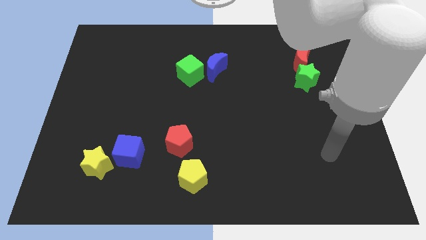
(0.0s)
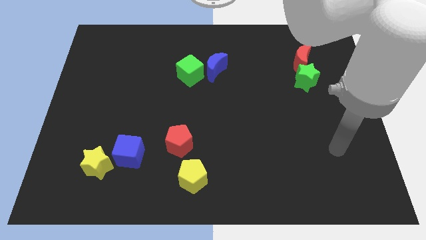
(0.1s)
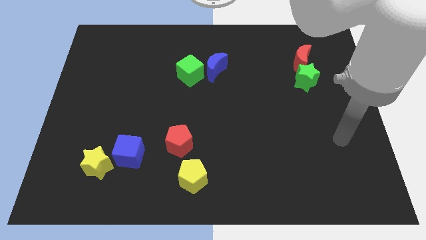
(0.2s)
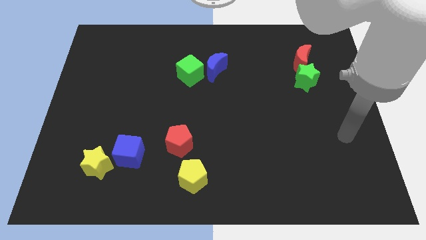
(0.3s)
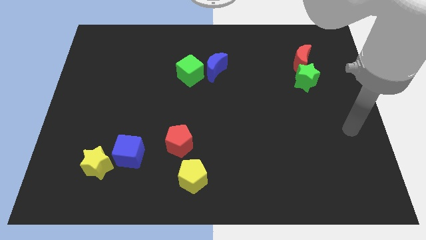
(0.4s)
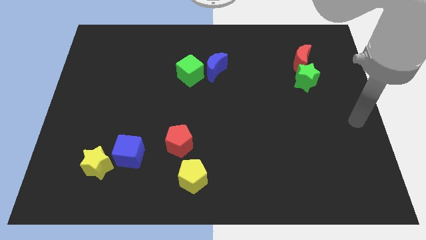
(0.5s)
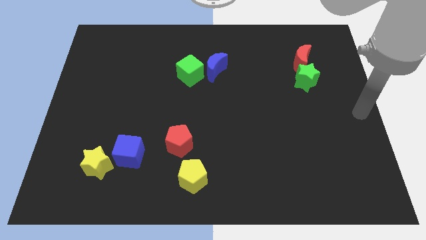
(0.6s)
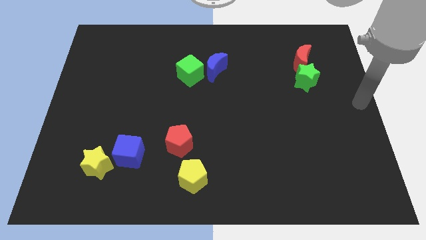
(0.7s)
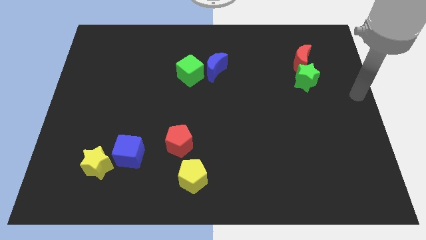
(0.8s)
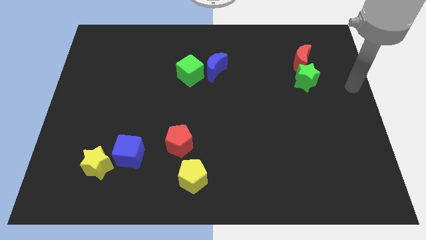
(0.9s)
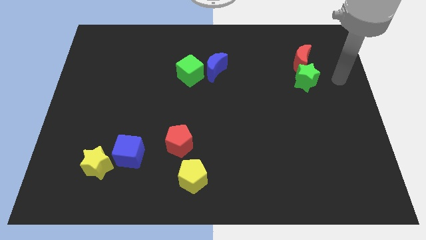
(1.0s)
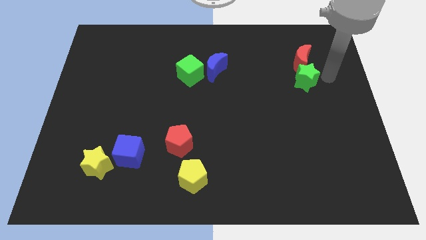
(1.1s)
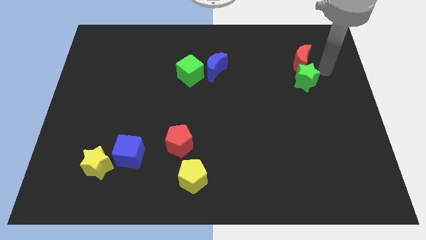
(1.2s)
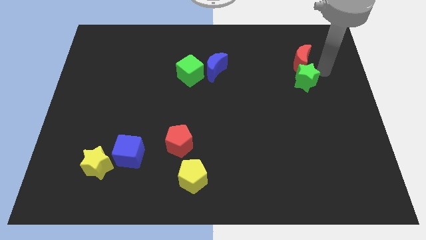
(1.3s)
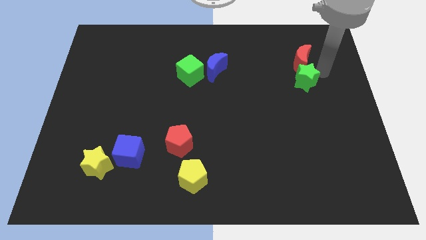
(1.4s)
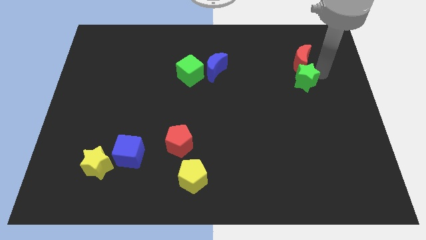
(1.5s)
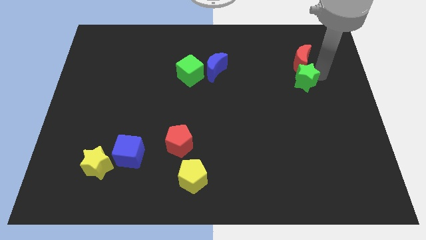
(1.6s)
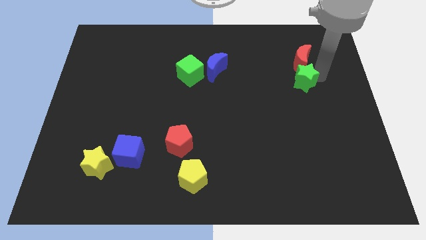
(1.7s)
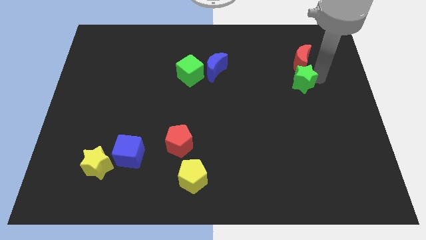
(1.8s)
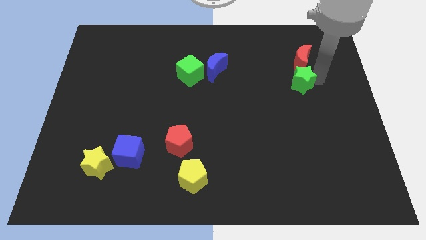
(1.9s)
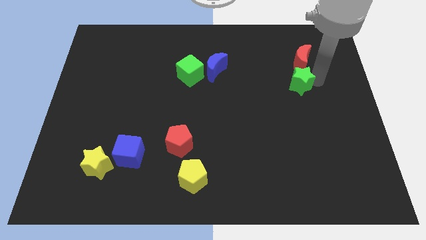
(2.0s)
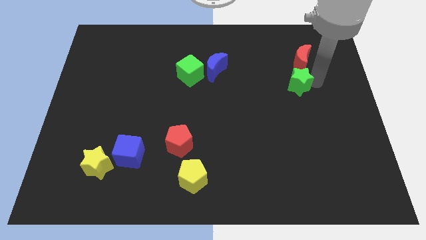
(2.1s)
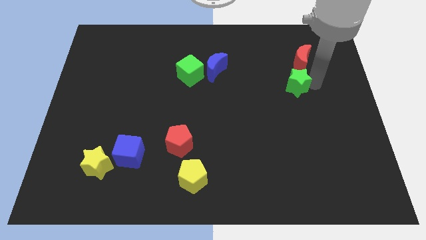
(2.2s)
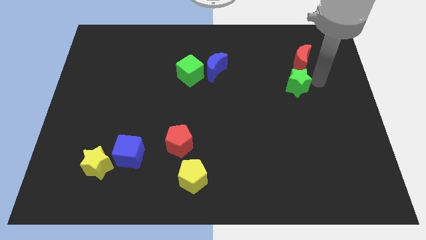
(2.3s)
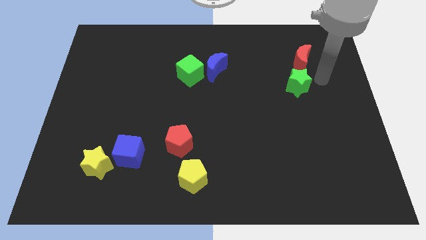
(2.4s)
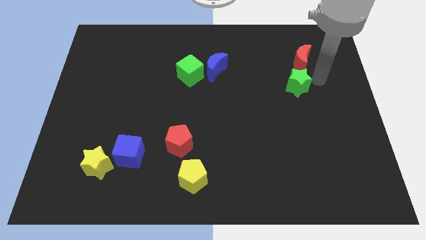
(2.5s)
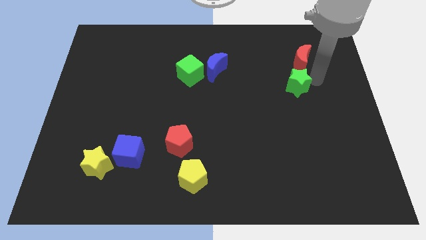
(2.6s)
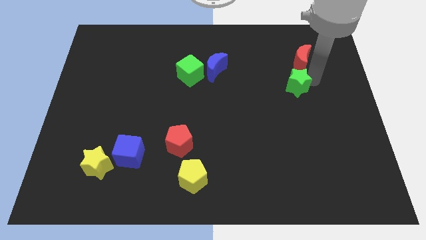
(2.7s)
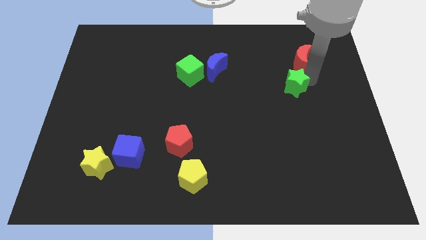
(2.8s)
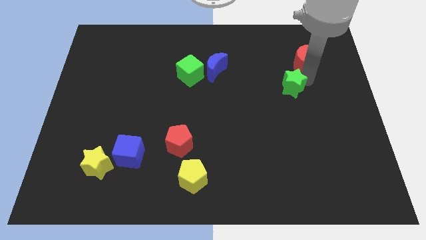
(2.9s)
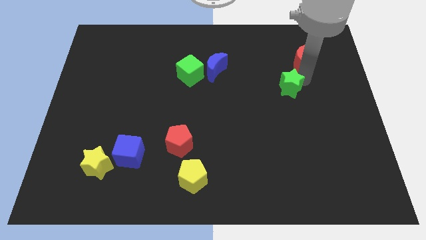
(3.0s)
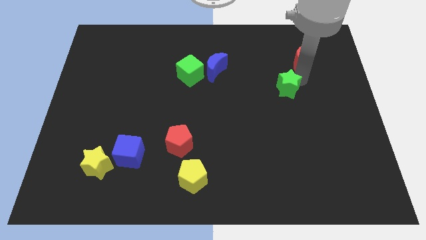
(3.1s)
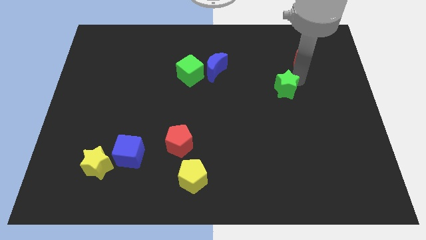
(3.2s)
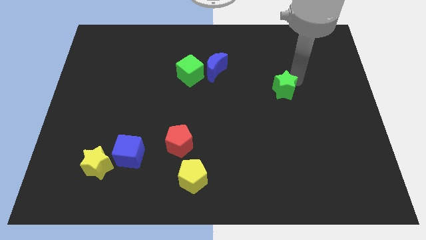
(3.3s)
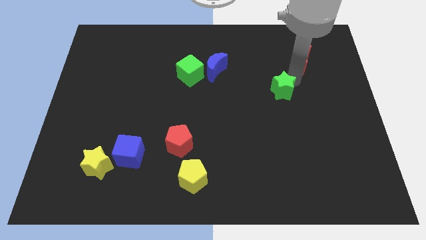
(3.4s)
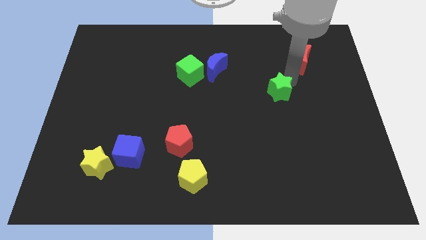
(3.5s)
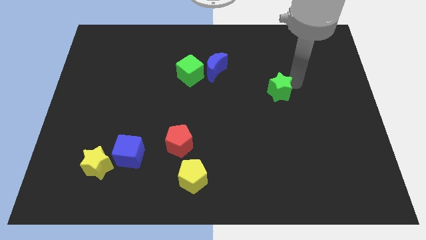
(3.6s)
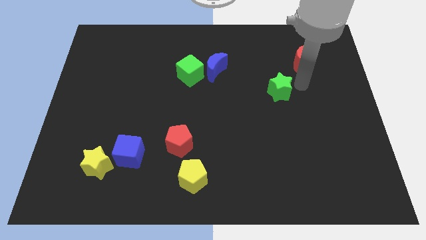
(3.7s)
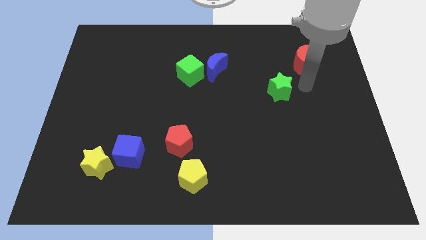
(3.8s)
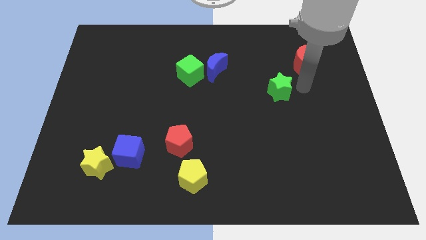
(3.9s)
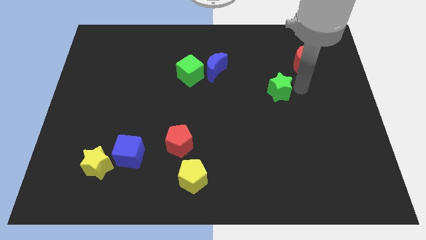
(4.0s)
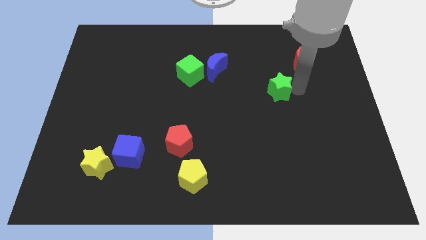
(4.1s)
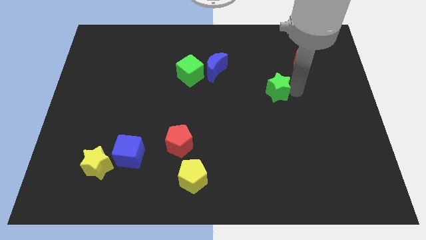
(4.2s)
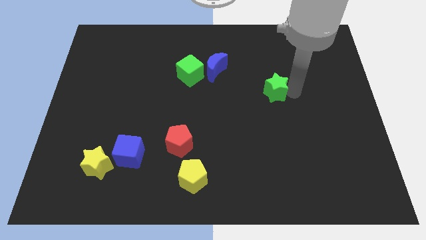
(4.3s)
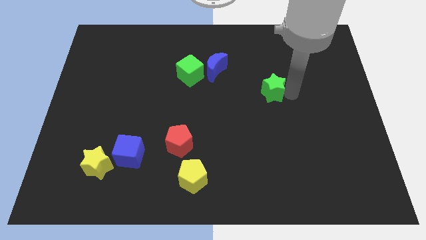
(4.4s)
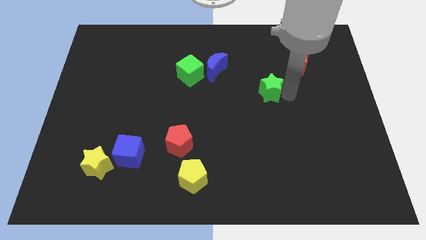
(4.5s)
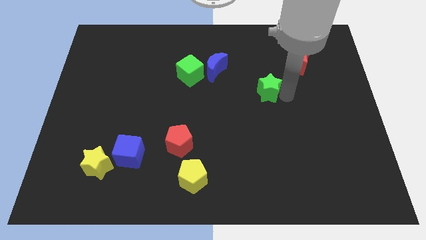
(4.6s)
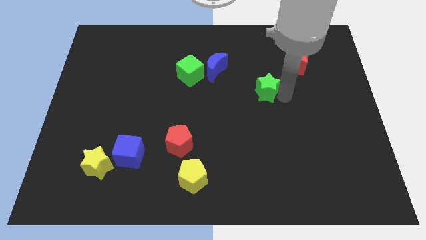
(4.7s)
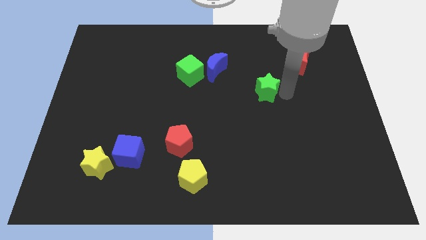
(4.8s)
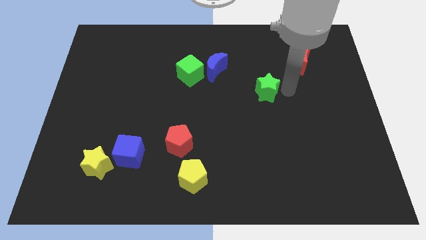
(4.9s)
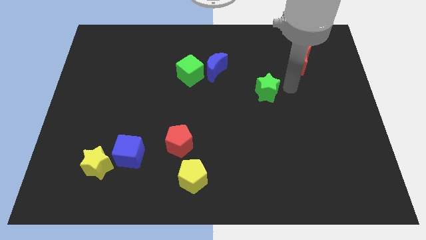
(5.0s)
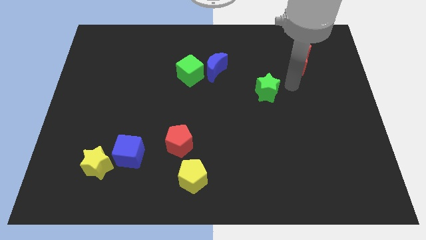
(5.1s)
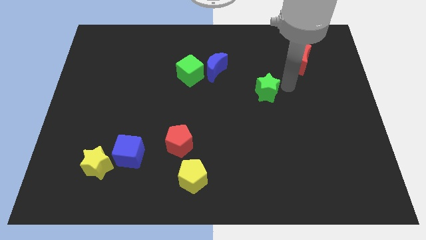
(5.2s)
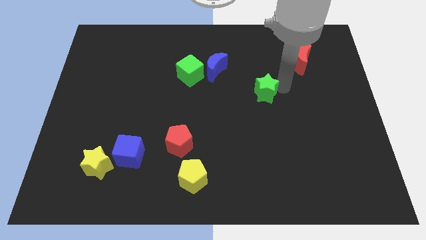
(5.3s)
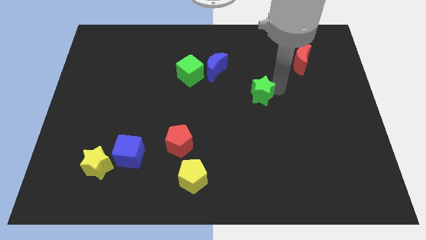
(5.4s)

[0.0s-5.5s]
push the green star to the center of the board

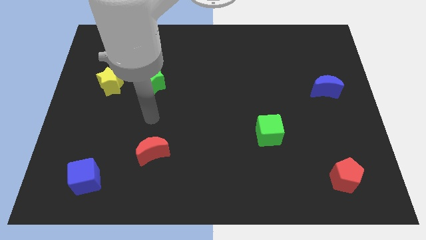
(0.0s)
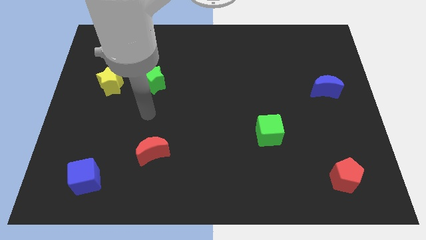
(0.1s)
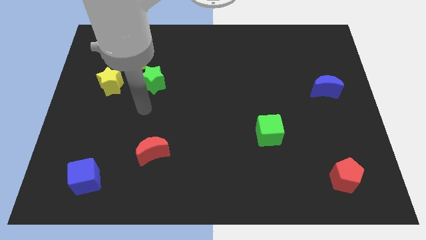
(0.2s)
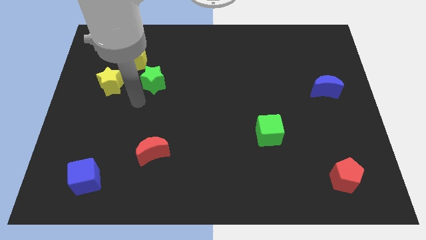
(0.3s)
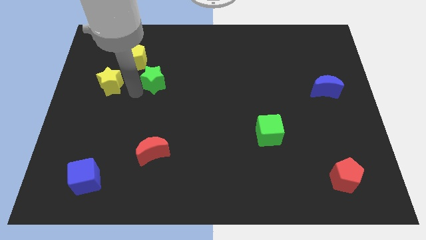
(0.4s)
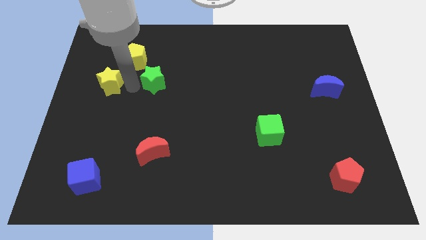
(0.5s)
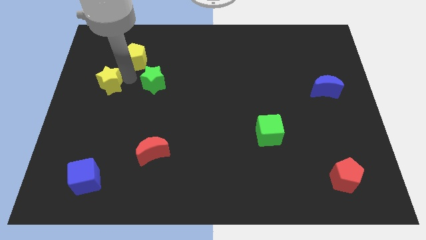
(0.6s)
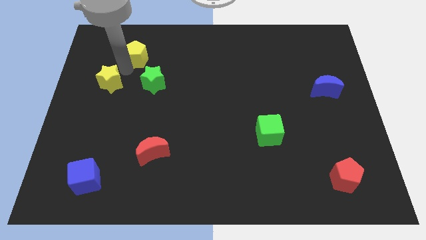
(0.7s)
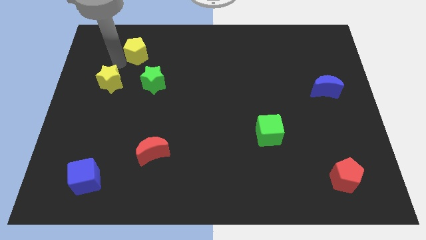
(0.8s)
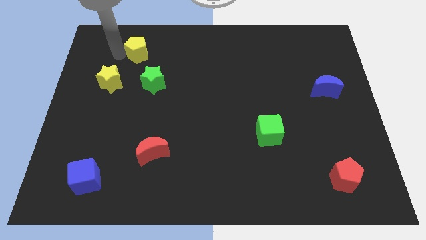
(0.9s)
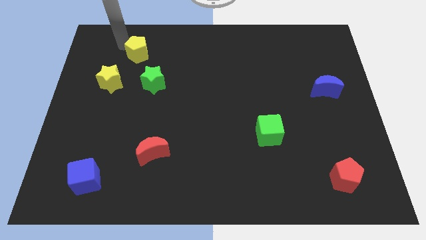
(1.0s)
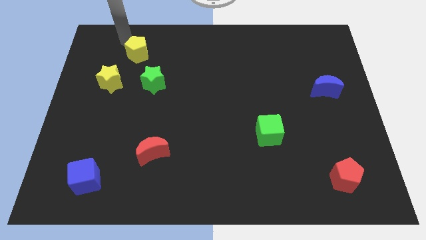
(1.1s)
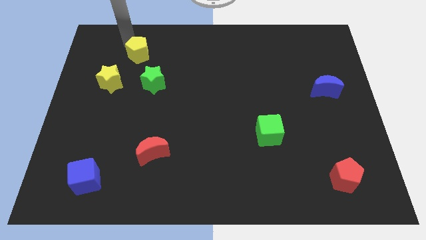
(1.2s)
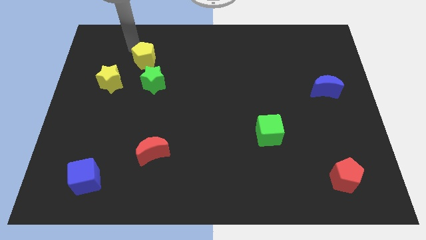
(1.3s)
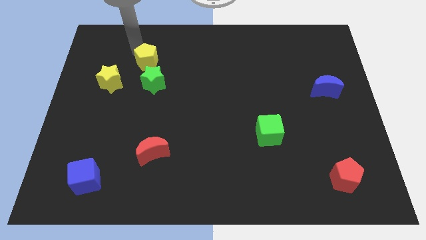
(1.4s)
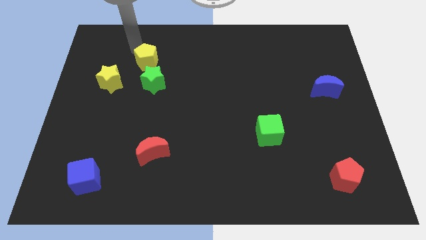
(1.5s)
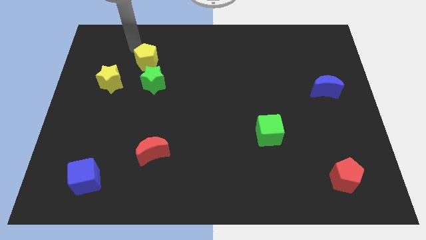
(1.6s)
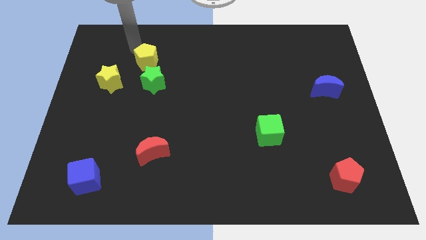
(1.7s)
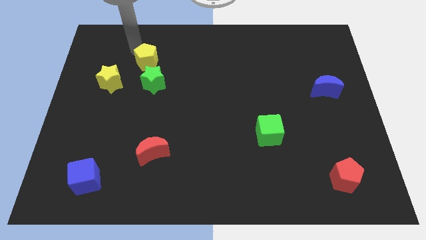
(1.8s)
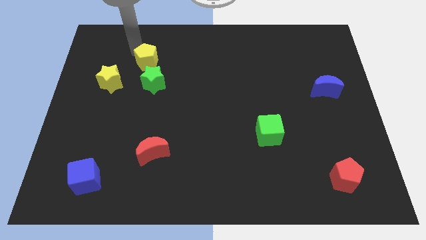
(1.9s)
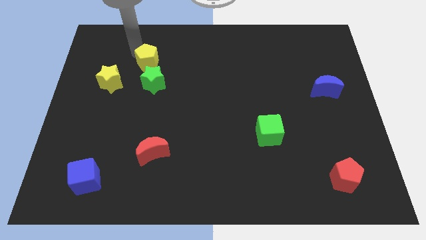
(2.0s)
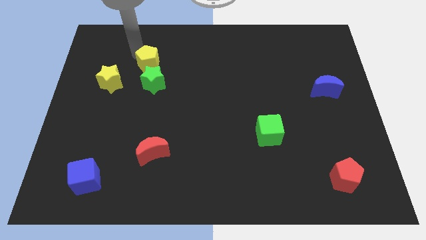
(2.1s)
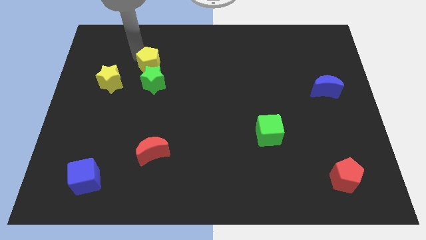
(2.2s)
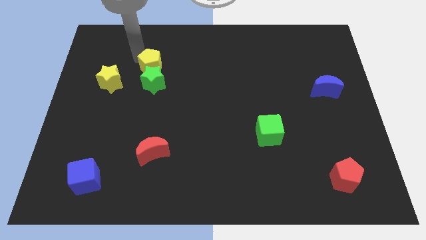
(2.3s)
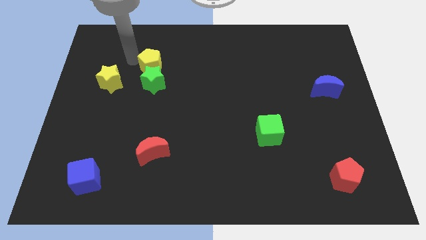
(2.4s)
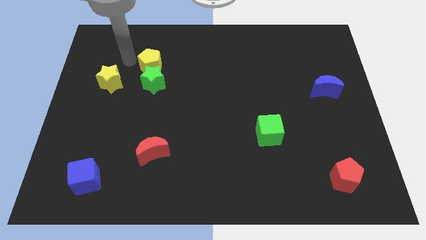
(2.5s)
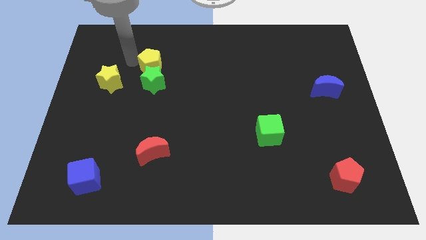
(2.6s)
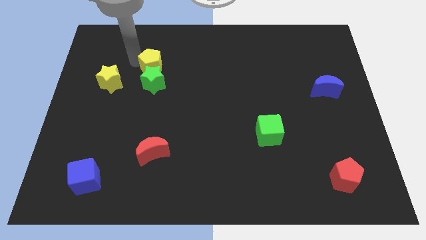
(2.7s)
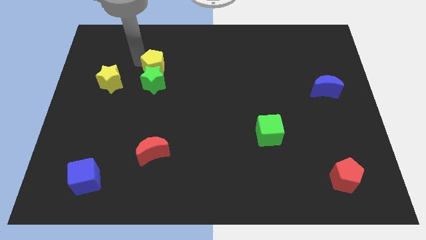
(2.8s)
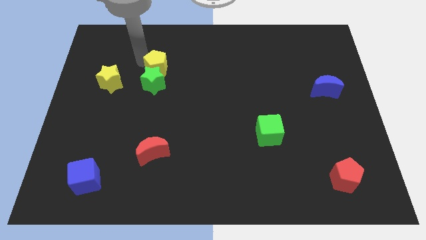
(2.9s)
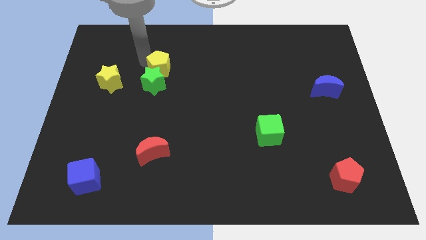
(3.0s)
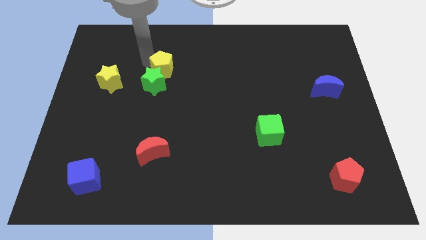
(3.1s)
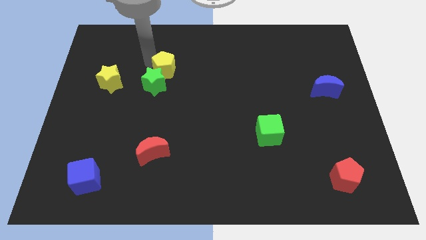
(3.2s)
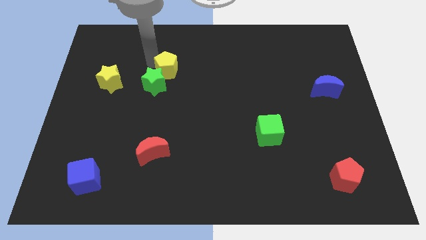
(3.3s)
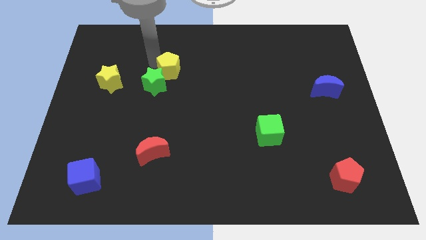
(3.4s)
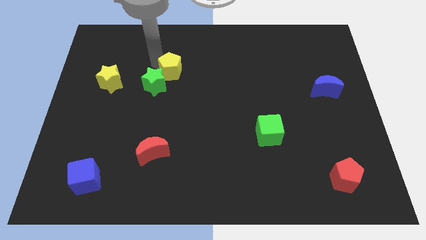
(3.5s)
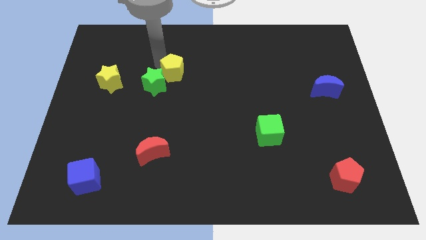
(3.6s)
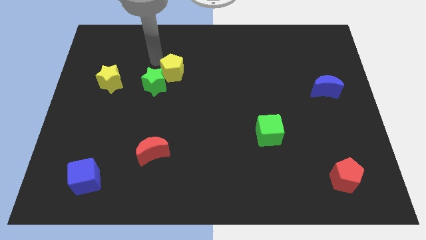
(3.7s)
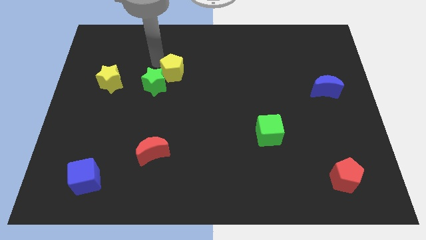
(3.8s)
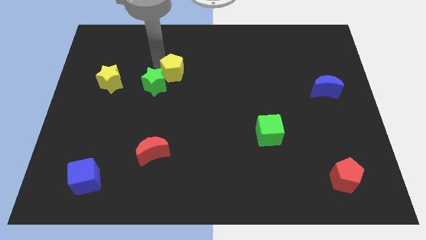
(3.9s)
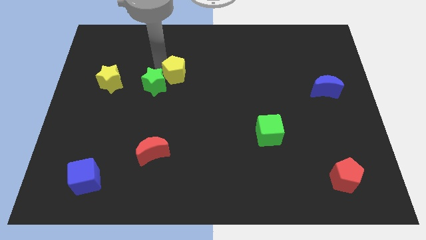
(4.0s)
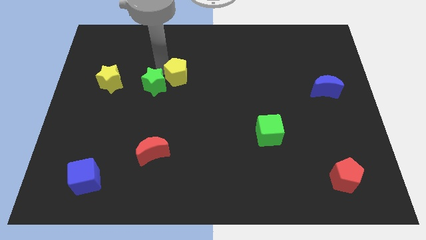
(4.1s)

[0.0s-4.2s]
push the yellow pentagon to the middle
